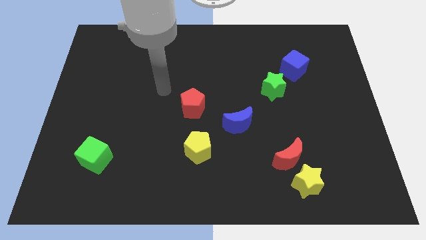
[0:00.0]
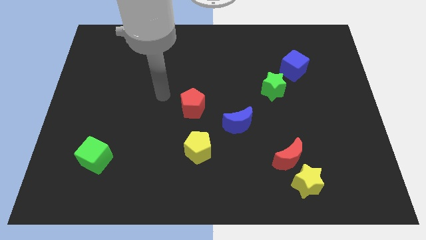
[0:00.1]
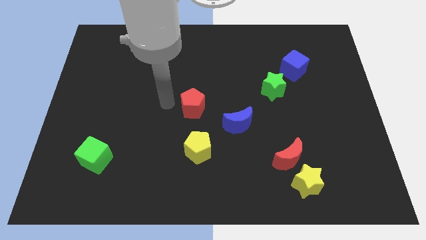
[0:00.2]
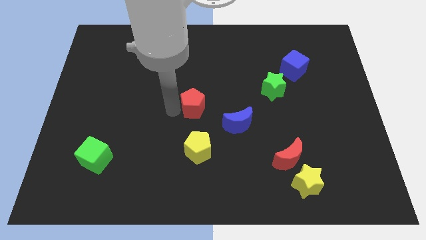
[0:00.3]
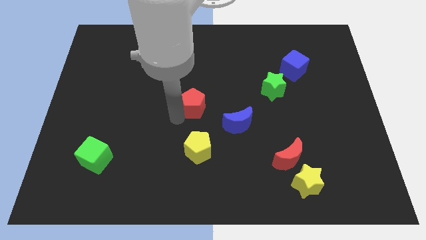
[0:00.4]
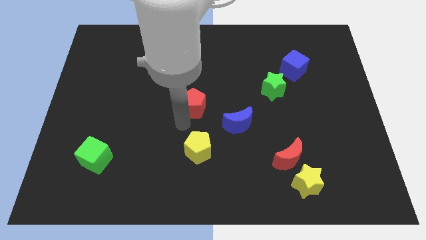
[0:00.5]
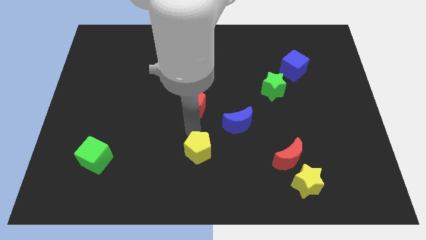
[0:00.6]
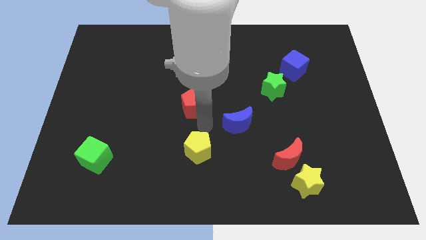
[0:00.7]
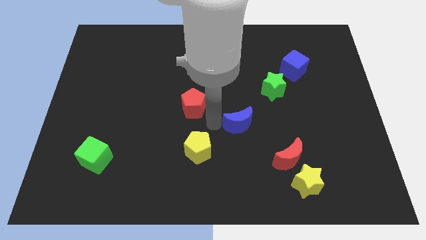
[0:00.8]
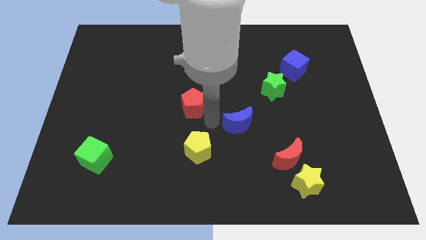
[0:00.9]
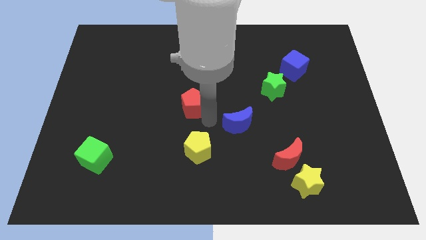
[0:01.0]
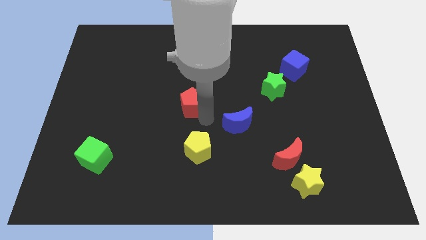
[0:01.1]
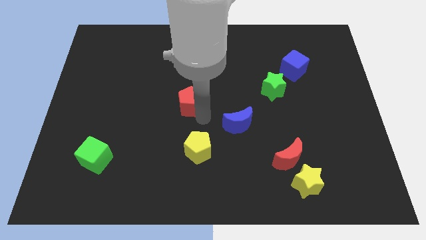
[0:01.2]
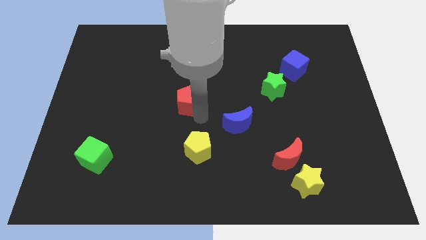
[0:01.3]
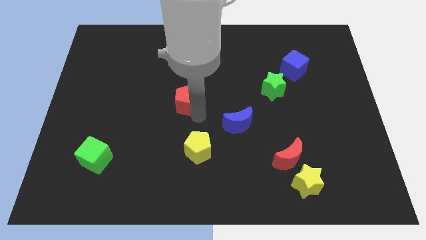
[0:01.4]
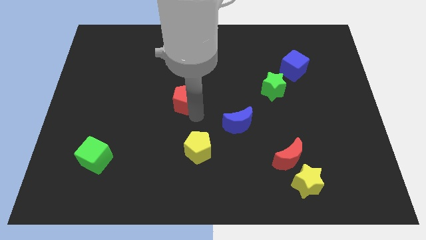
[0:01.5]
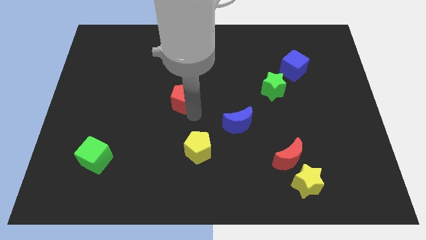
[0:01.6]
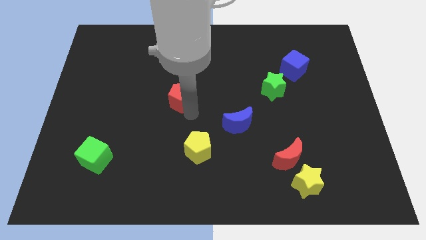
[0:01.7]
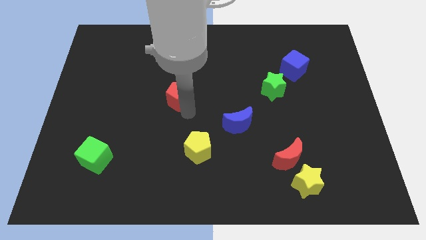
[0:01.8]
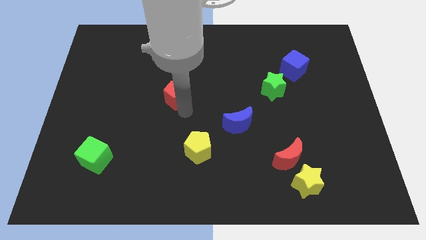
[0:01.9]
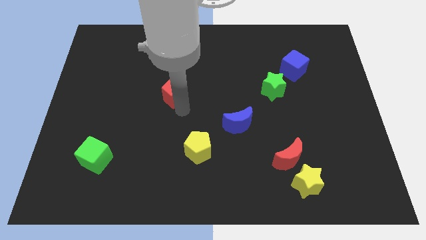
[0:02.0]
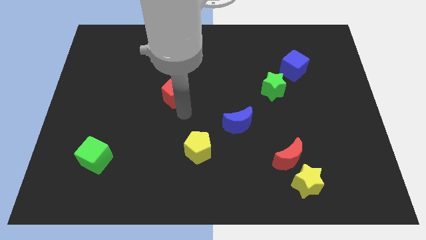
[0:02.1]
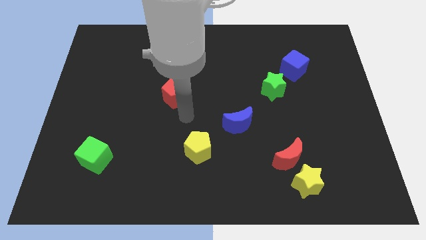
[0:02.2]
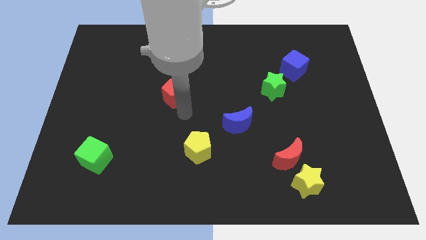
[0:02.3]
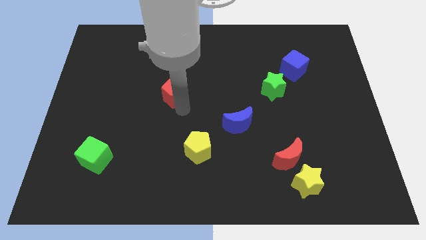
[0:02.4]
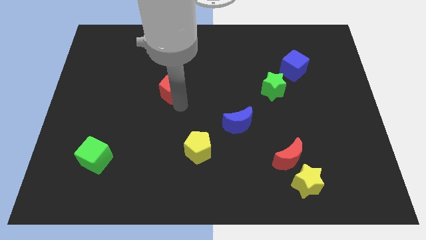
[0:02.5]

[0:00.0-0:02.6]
slightly push the red pentagon upwards and then left

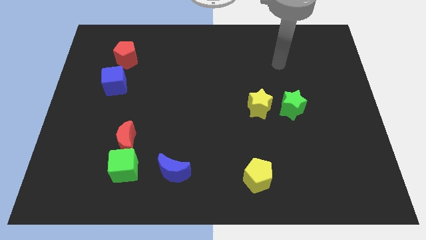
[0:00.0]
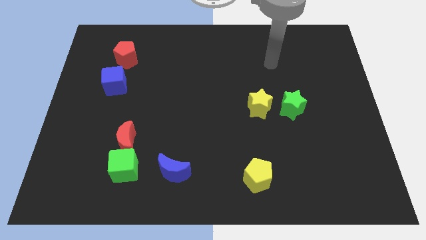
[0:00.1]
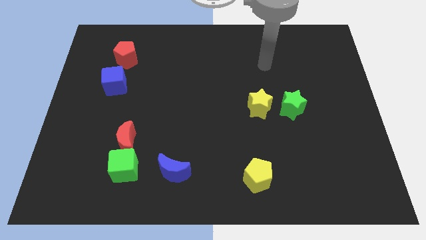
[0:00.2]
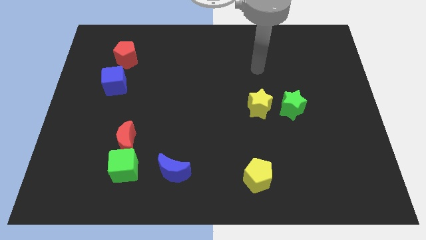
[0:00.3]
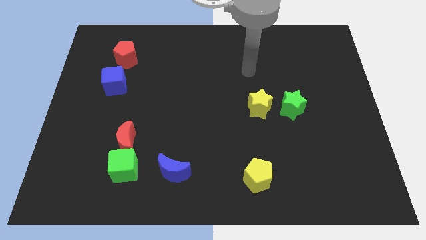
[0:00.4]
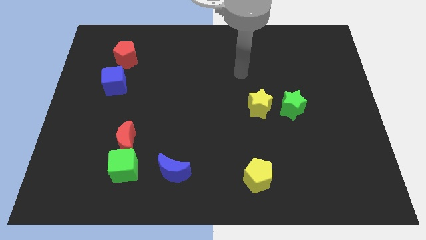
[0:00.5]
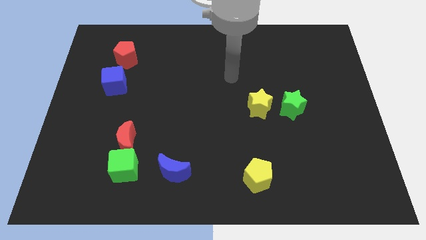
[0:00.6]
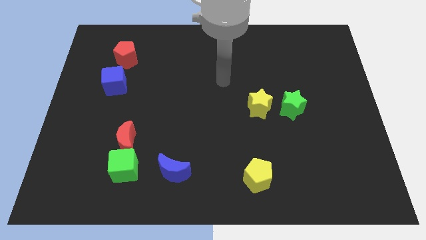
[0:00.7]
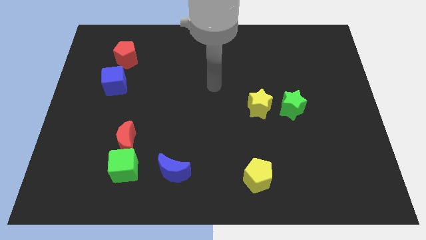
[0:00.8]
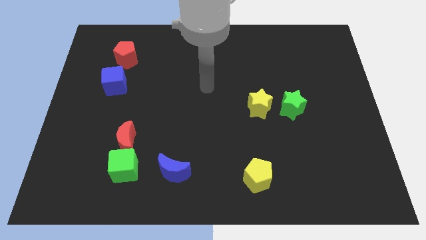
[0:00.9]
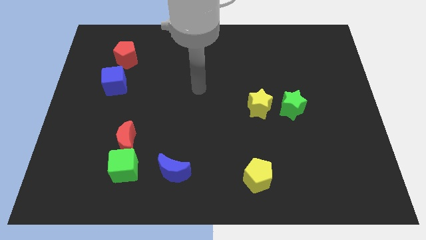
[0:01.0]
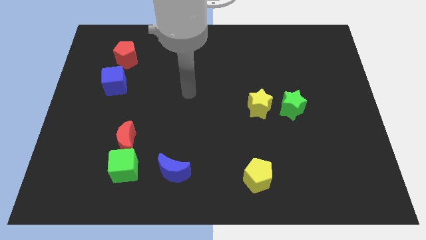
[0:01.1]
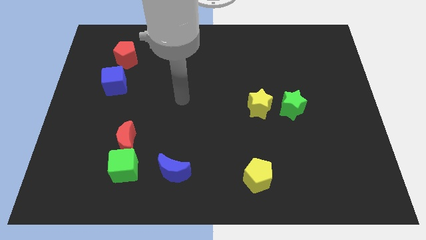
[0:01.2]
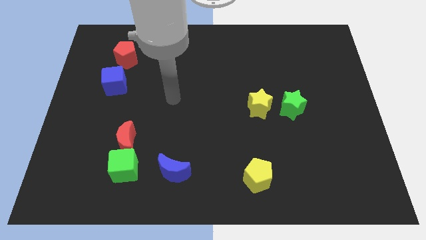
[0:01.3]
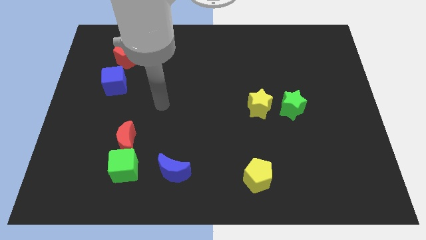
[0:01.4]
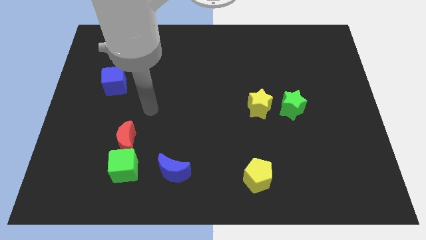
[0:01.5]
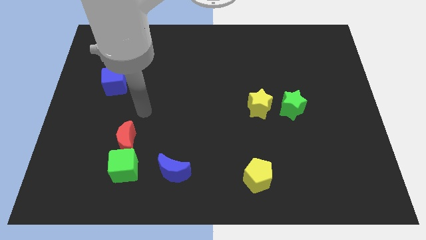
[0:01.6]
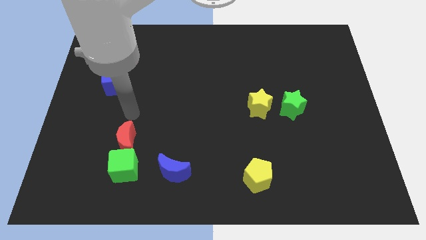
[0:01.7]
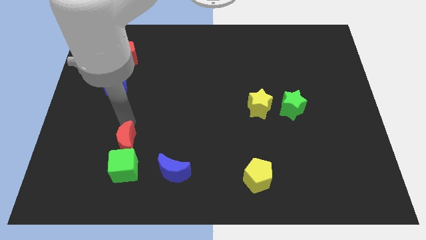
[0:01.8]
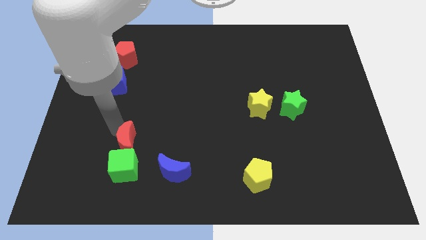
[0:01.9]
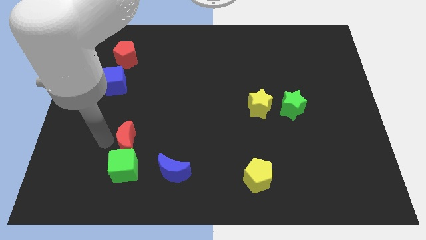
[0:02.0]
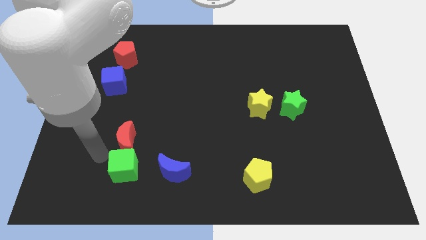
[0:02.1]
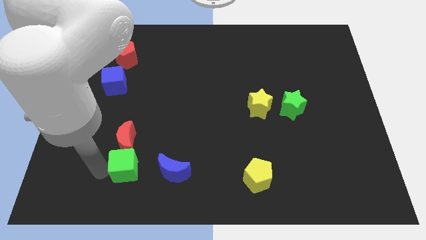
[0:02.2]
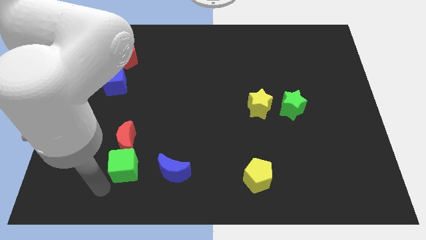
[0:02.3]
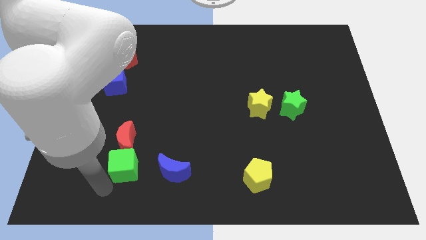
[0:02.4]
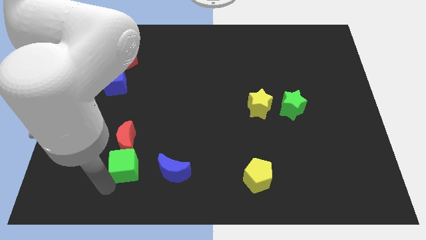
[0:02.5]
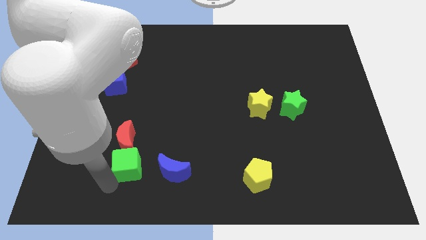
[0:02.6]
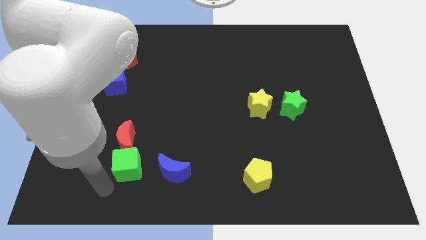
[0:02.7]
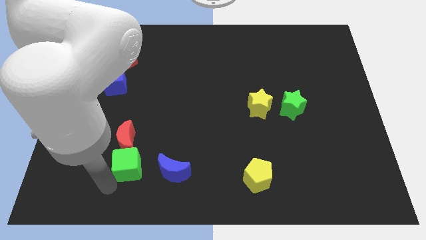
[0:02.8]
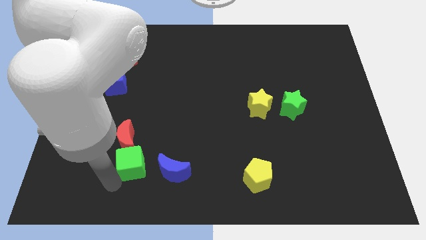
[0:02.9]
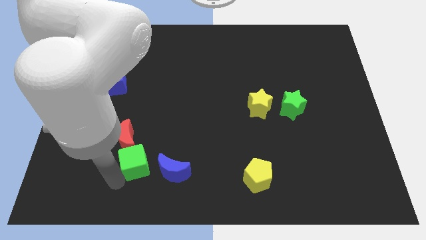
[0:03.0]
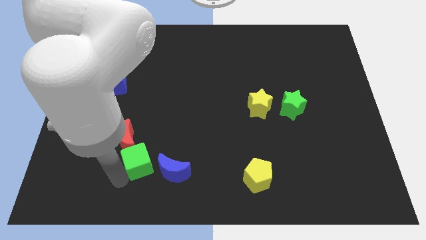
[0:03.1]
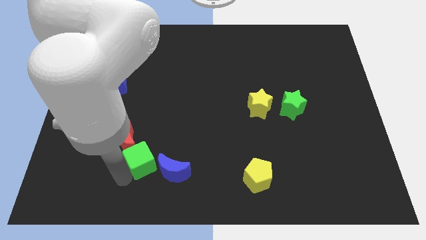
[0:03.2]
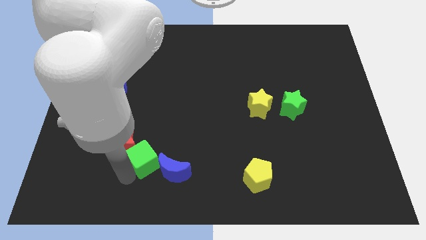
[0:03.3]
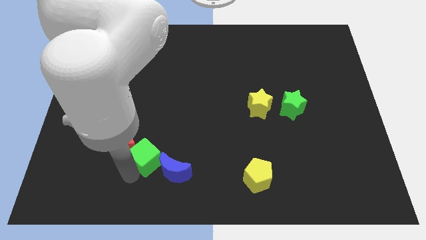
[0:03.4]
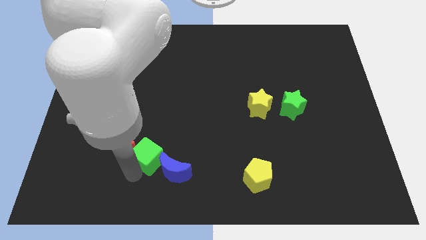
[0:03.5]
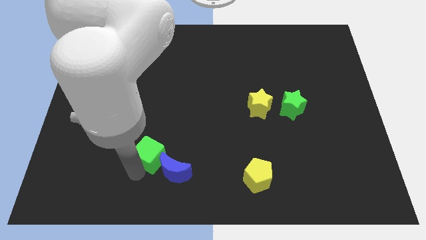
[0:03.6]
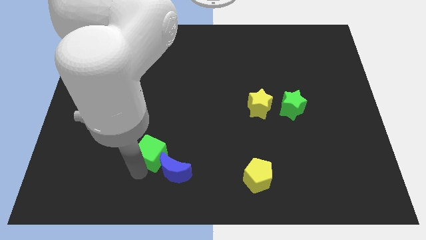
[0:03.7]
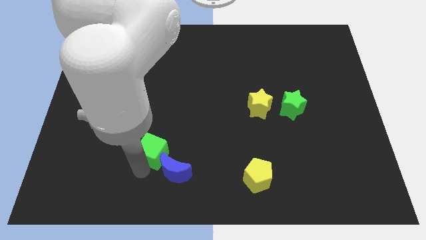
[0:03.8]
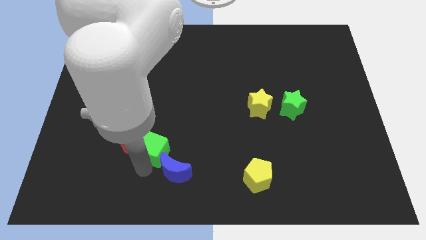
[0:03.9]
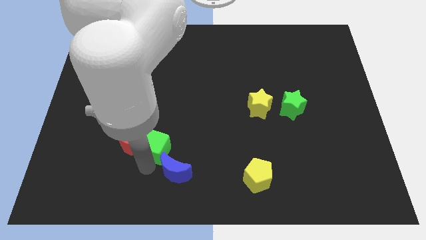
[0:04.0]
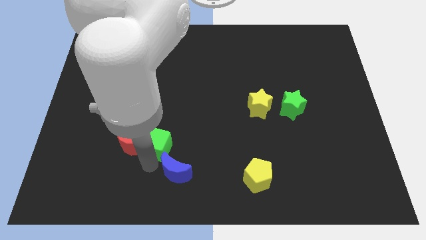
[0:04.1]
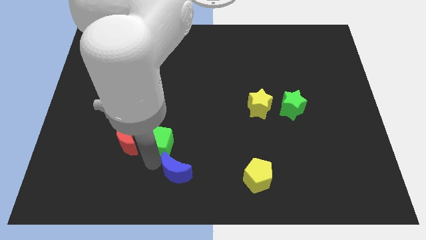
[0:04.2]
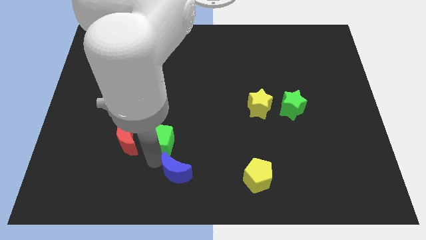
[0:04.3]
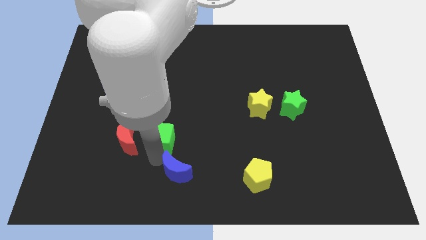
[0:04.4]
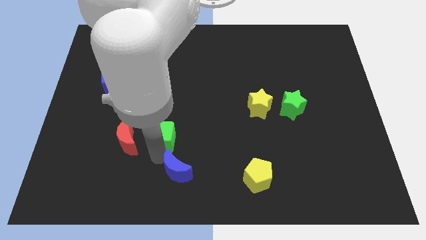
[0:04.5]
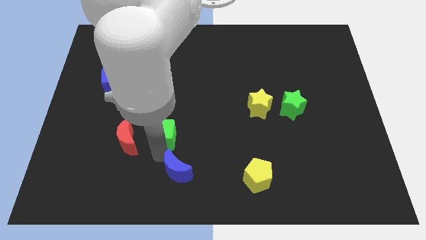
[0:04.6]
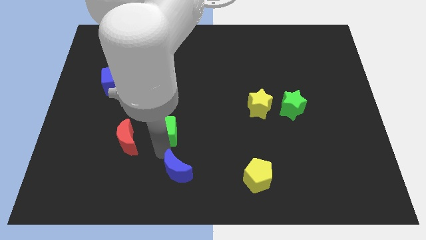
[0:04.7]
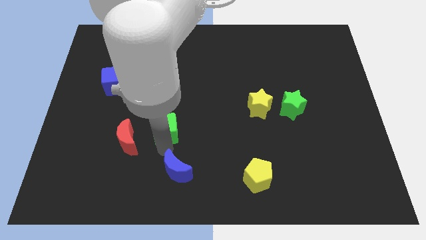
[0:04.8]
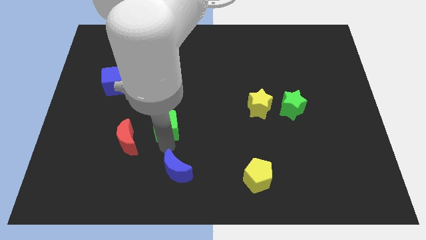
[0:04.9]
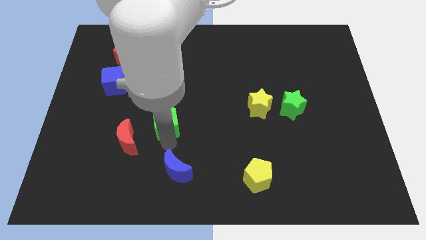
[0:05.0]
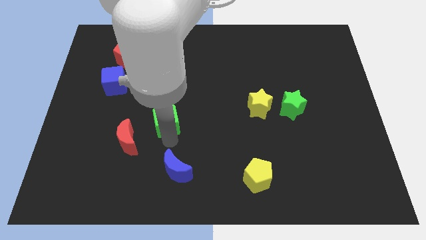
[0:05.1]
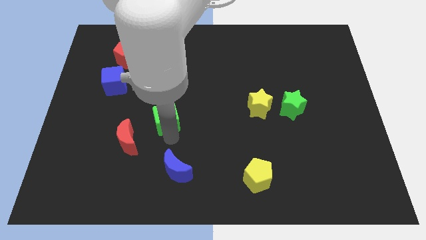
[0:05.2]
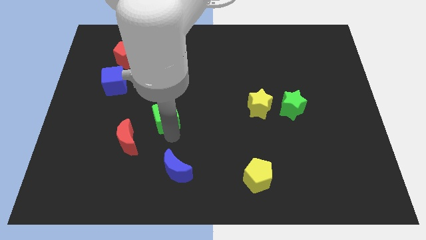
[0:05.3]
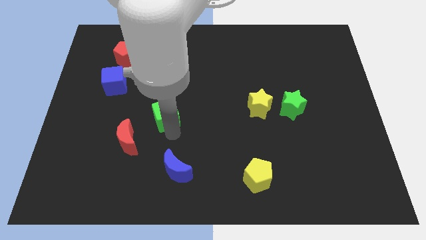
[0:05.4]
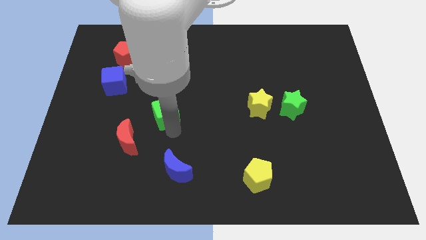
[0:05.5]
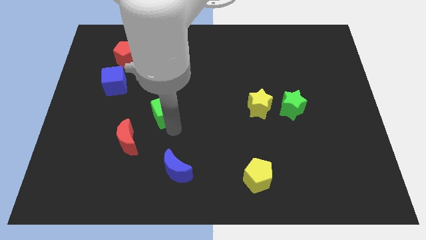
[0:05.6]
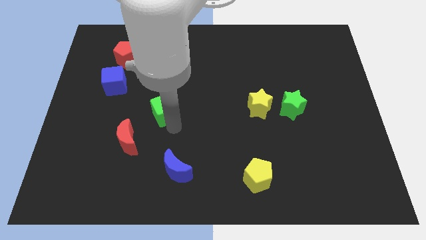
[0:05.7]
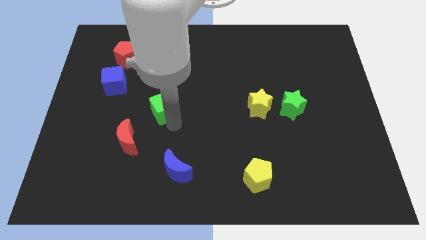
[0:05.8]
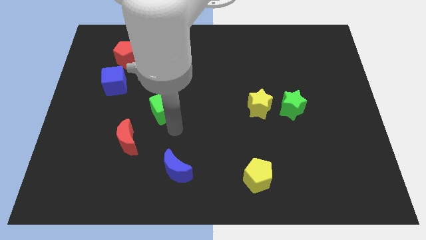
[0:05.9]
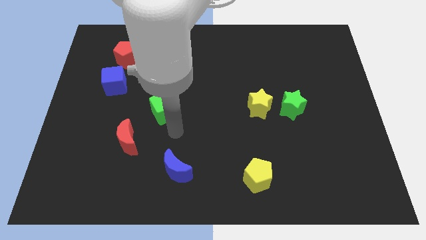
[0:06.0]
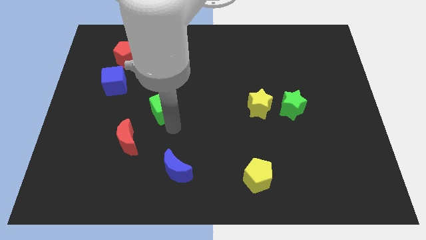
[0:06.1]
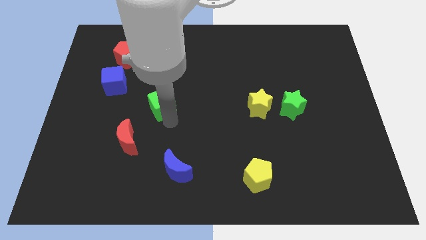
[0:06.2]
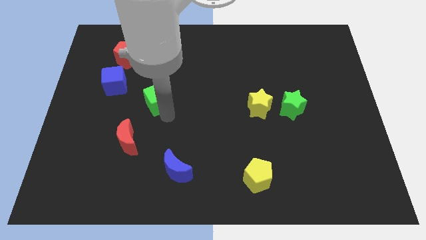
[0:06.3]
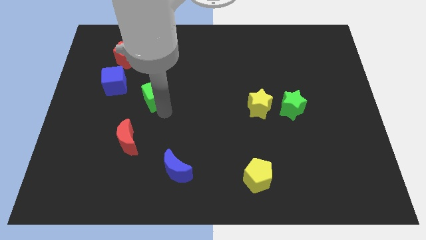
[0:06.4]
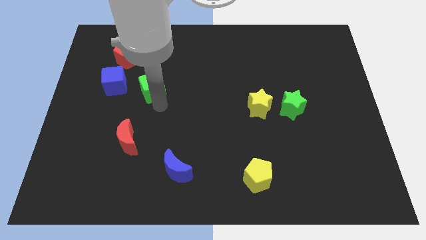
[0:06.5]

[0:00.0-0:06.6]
move the green cube up
